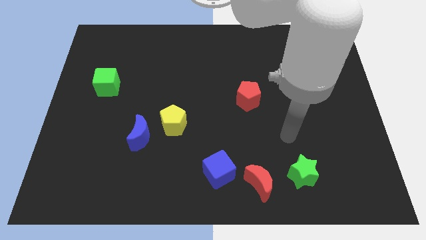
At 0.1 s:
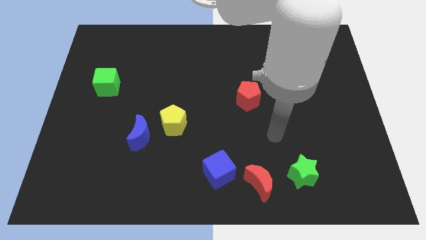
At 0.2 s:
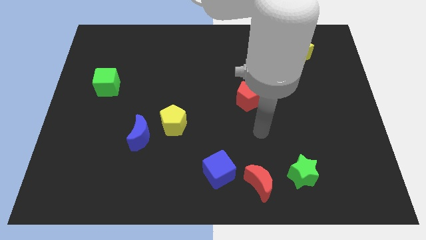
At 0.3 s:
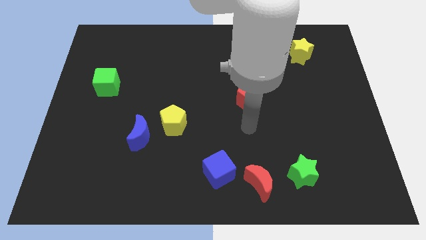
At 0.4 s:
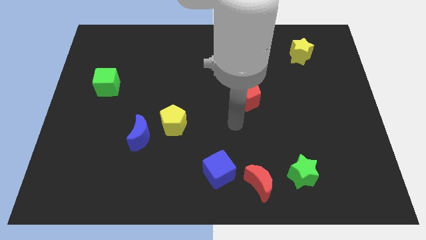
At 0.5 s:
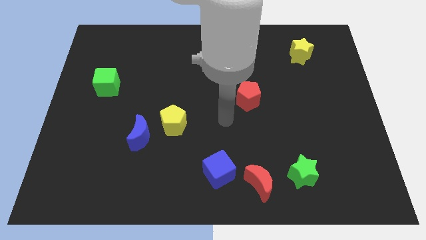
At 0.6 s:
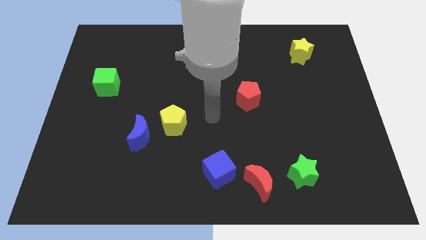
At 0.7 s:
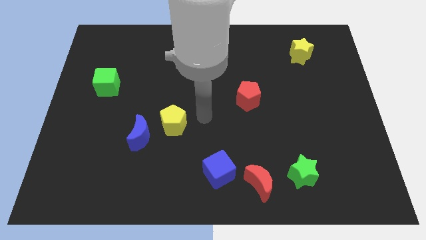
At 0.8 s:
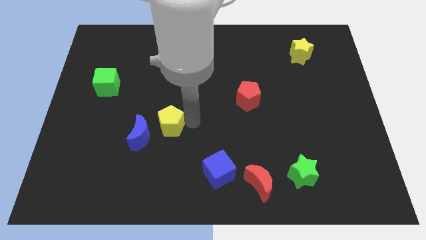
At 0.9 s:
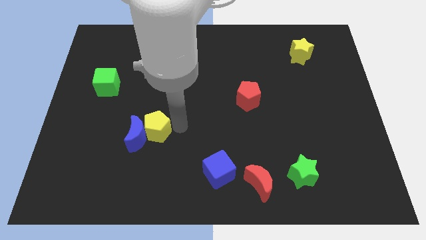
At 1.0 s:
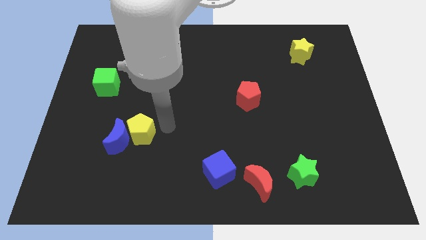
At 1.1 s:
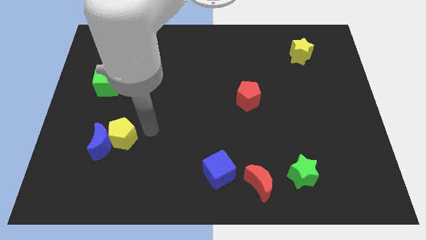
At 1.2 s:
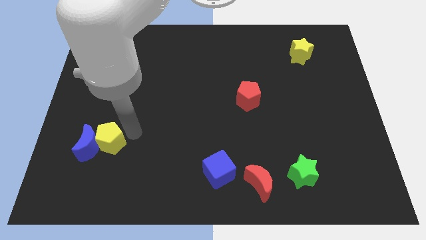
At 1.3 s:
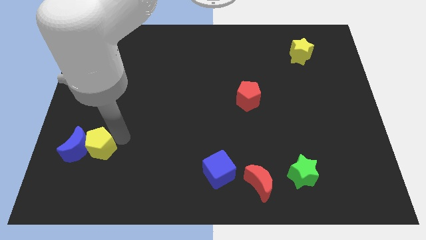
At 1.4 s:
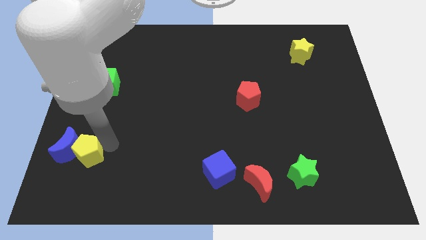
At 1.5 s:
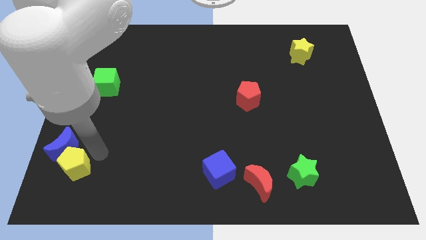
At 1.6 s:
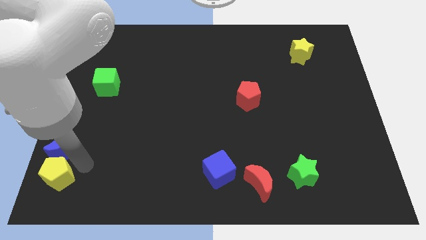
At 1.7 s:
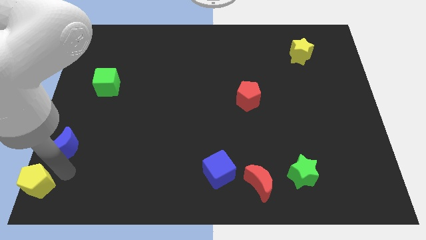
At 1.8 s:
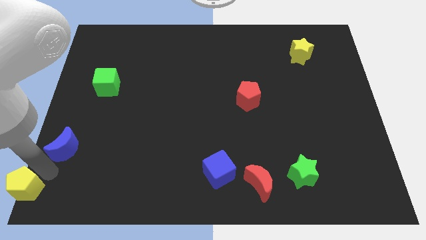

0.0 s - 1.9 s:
pull the blue moon apart from the yellow pentagon

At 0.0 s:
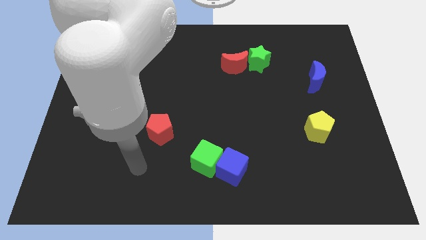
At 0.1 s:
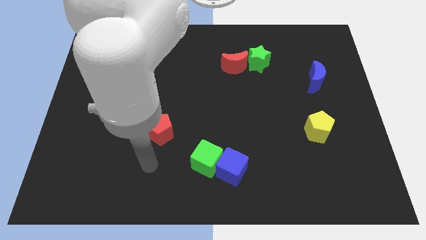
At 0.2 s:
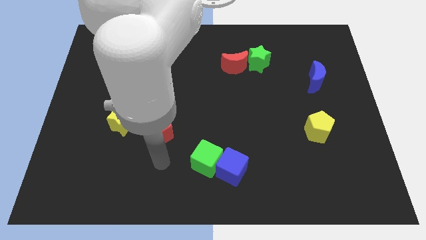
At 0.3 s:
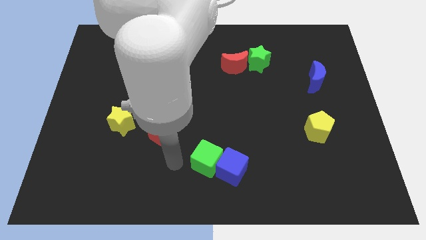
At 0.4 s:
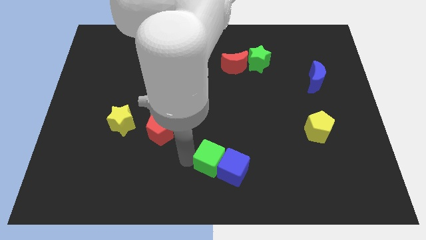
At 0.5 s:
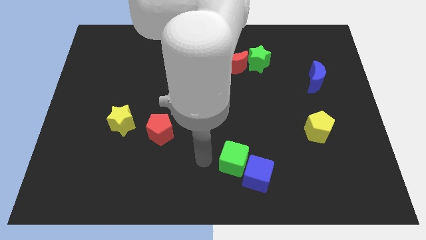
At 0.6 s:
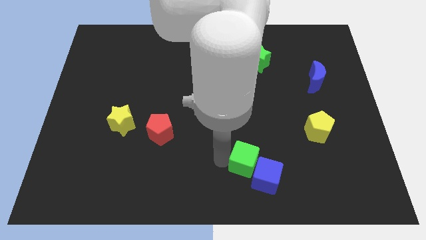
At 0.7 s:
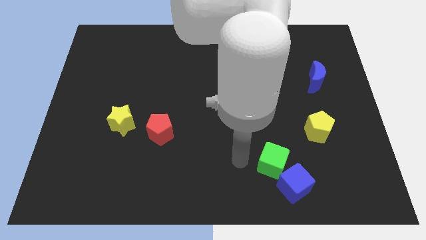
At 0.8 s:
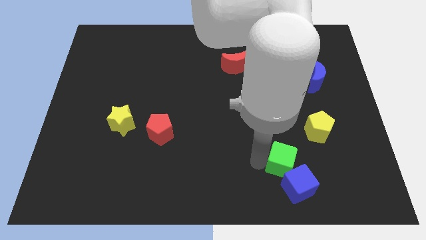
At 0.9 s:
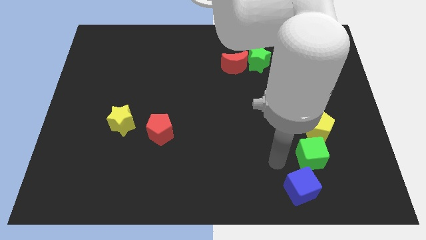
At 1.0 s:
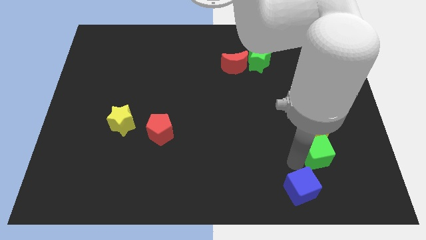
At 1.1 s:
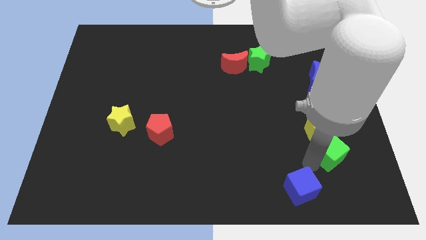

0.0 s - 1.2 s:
move the blue cube away from the green cube

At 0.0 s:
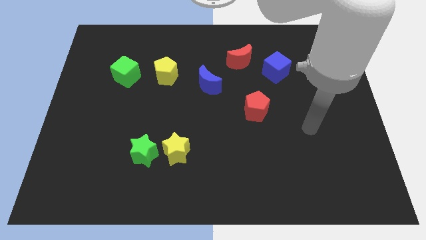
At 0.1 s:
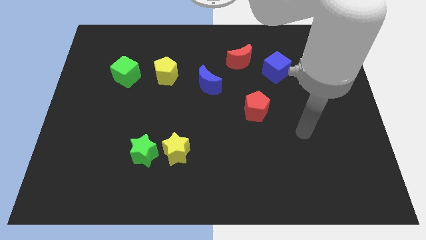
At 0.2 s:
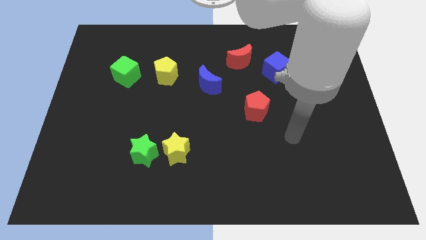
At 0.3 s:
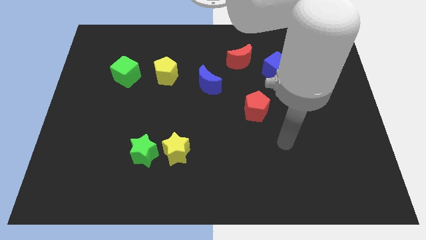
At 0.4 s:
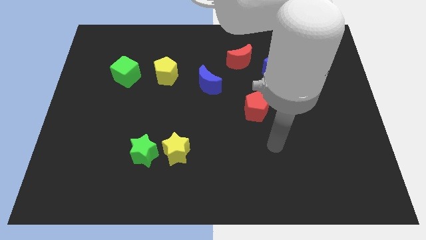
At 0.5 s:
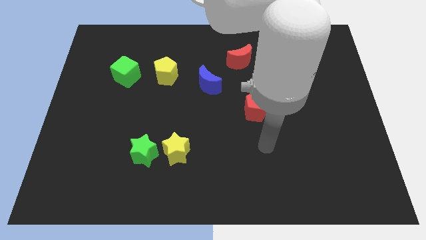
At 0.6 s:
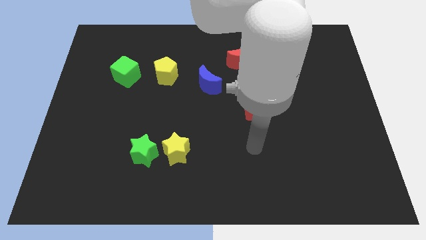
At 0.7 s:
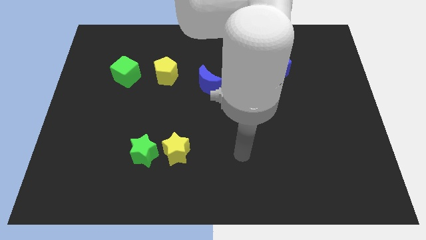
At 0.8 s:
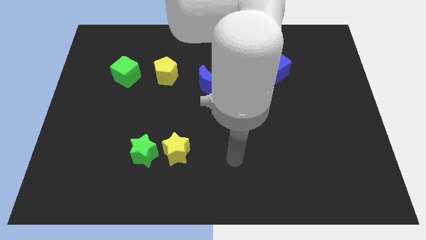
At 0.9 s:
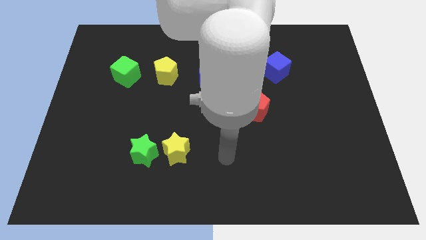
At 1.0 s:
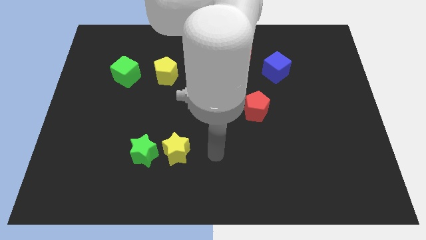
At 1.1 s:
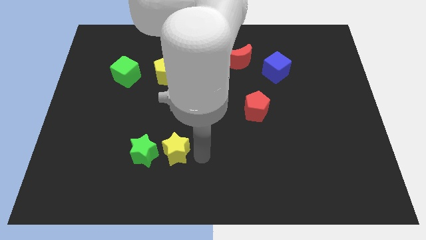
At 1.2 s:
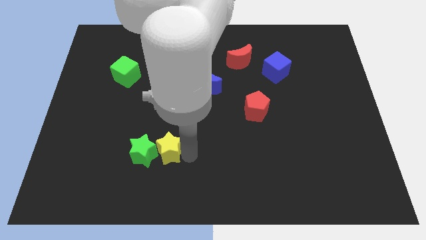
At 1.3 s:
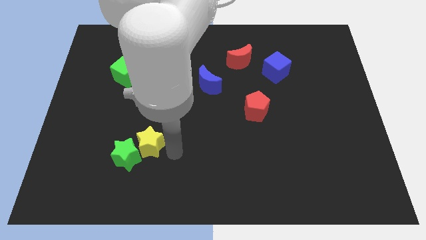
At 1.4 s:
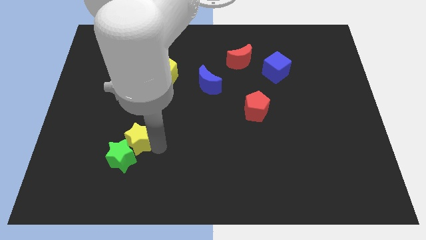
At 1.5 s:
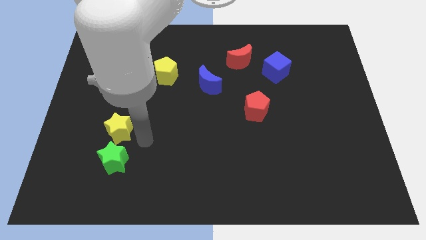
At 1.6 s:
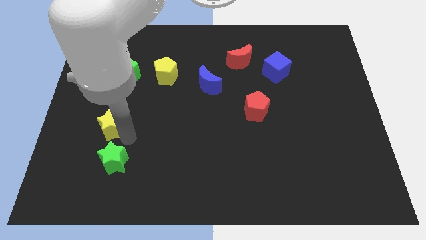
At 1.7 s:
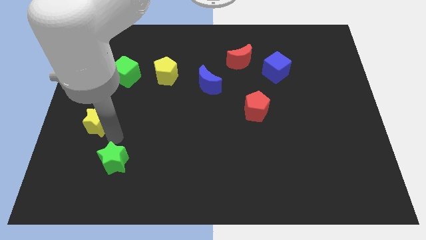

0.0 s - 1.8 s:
move the green star away from the yellow star

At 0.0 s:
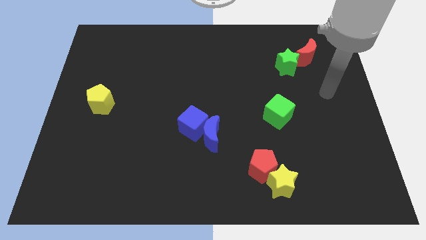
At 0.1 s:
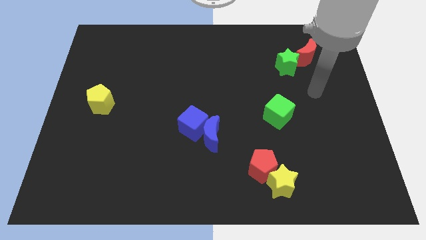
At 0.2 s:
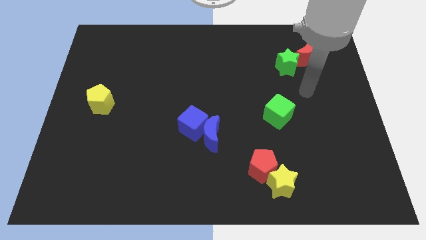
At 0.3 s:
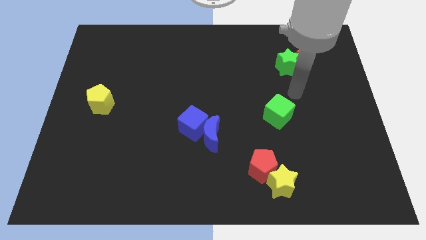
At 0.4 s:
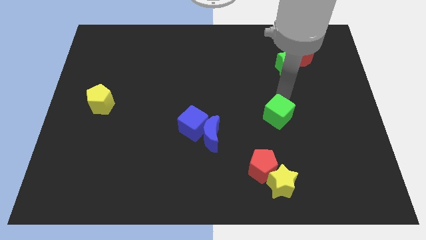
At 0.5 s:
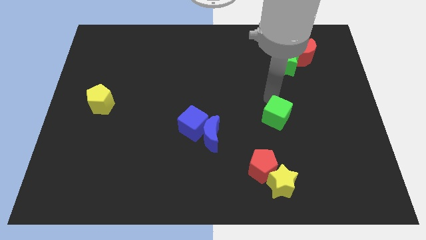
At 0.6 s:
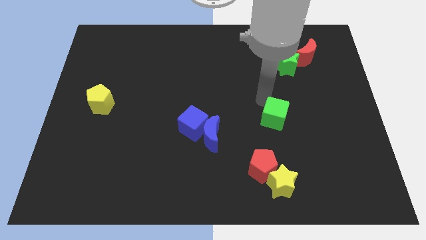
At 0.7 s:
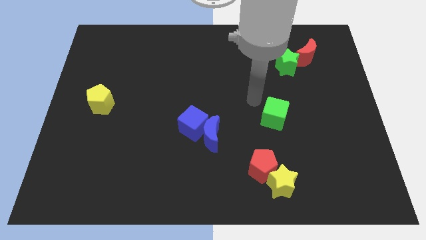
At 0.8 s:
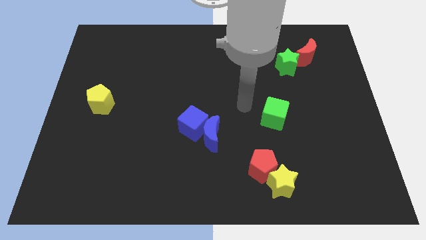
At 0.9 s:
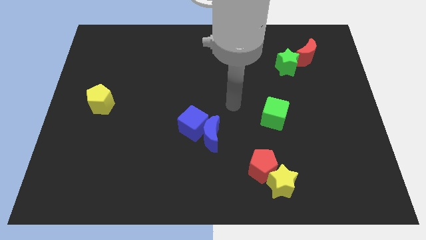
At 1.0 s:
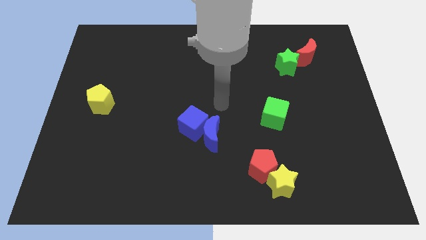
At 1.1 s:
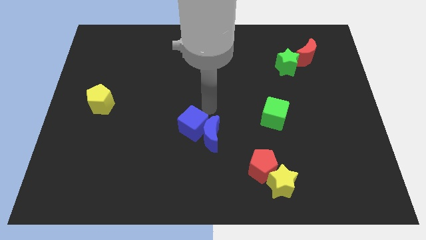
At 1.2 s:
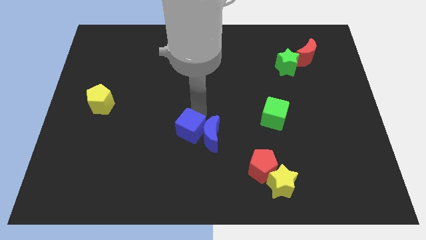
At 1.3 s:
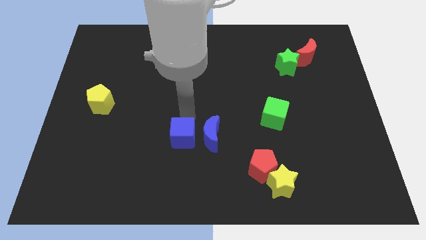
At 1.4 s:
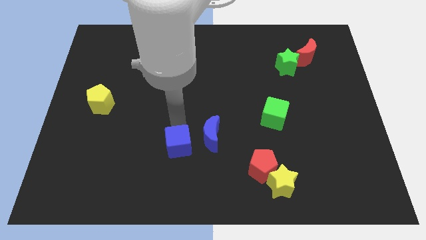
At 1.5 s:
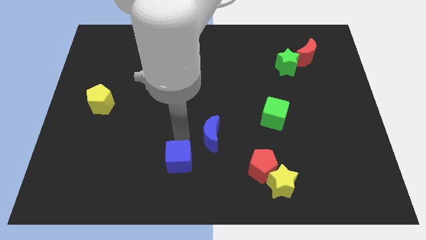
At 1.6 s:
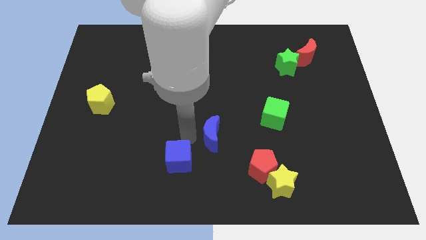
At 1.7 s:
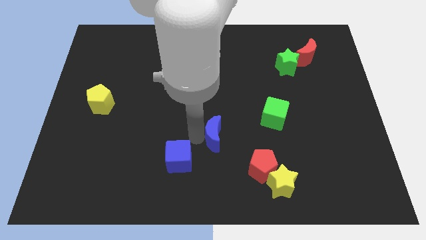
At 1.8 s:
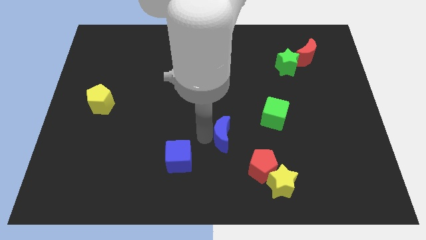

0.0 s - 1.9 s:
separate the blue moon from the blue cube

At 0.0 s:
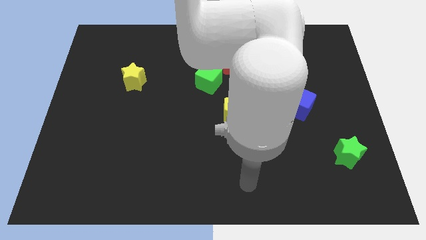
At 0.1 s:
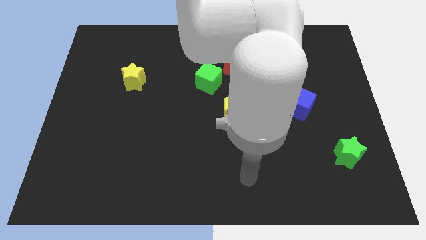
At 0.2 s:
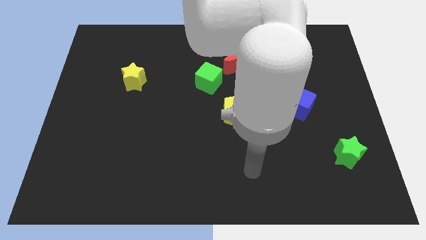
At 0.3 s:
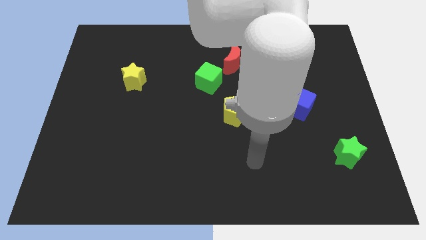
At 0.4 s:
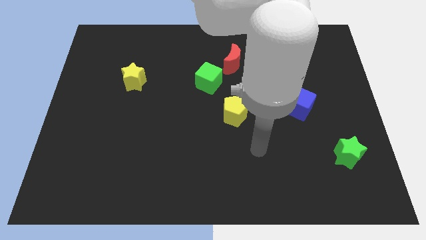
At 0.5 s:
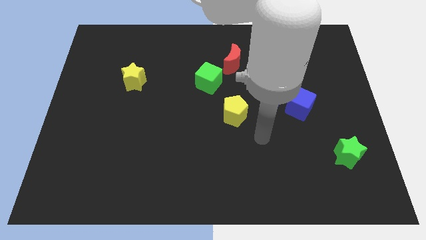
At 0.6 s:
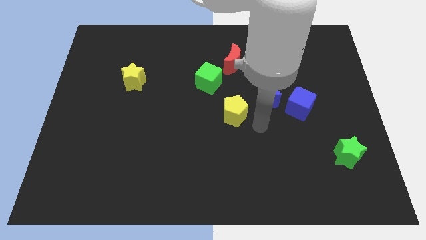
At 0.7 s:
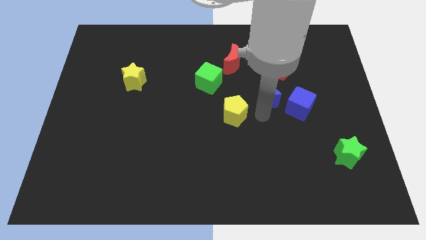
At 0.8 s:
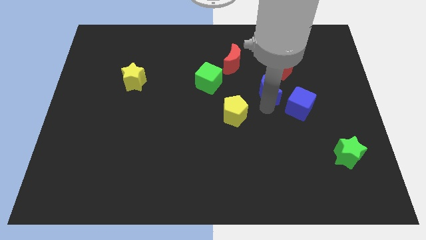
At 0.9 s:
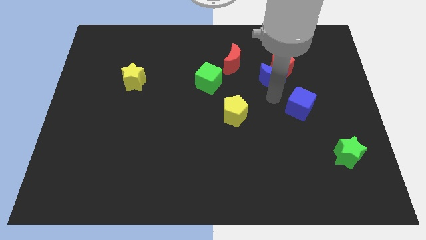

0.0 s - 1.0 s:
separate the blue cube from the blue moon

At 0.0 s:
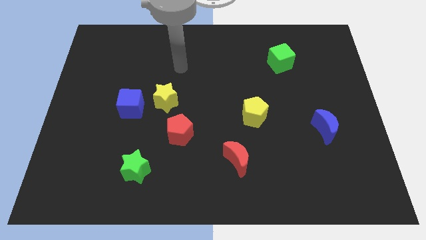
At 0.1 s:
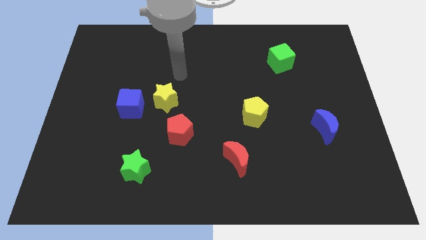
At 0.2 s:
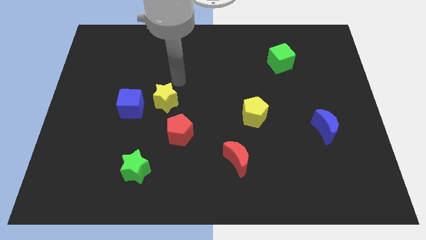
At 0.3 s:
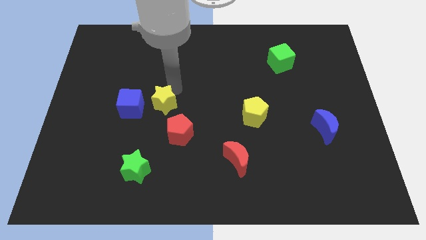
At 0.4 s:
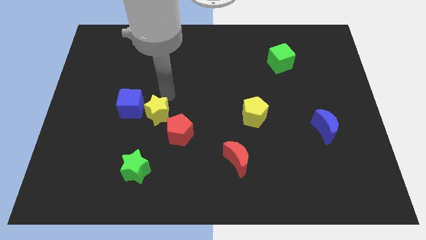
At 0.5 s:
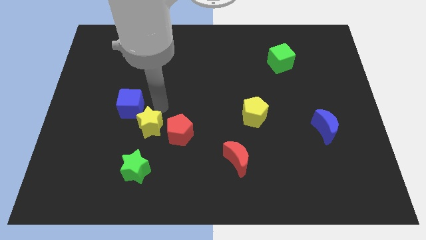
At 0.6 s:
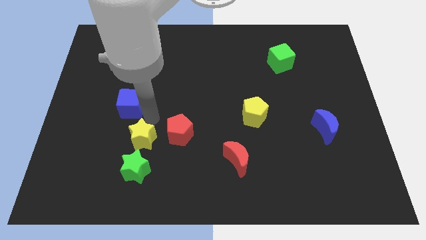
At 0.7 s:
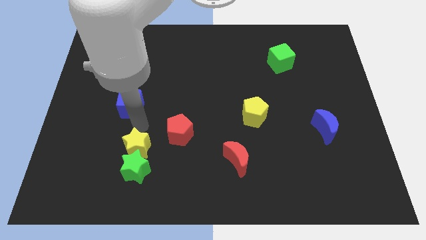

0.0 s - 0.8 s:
separate the blue cube from the yellow star

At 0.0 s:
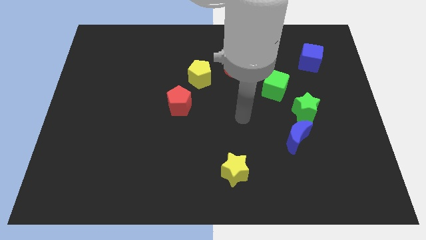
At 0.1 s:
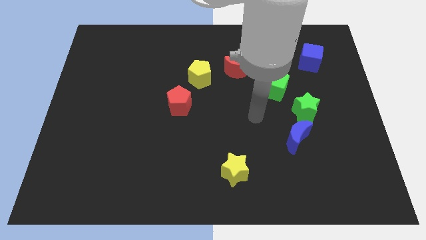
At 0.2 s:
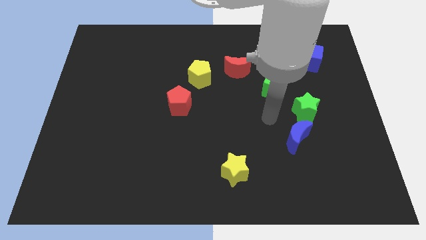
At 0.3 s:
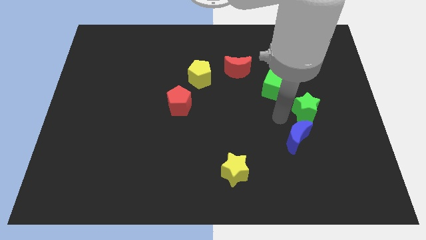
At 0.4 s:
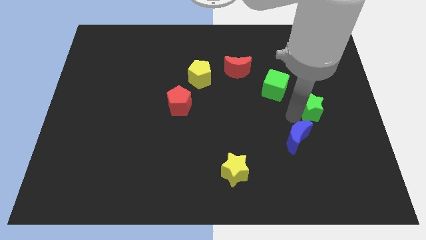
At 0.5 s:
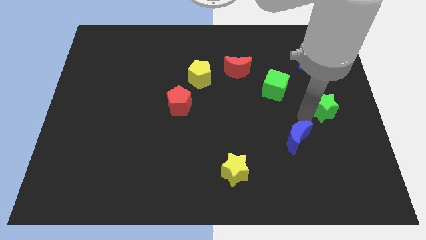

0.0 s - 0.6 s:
separate the blue moon from the green star

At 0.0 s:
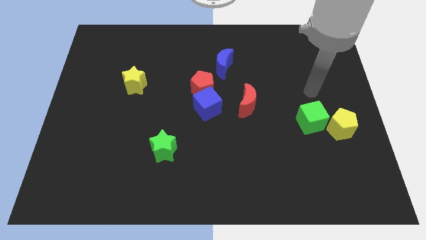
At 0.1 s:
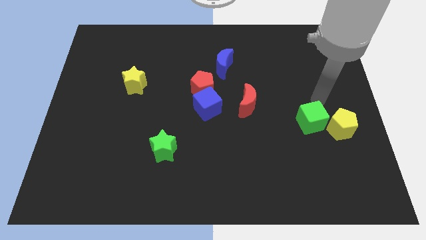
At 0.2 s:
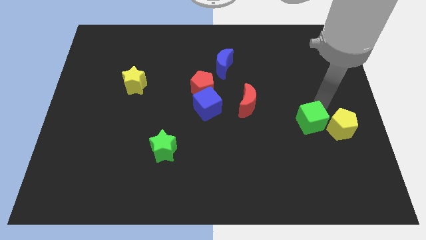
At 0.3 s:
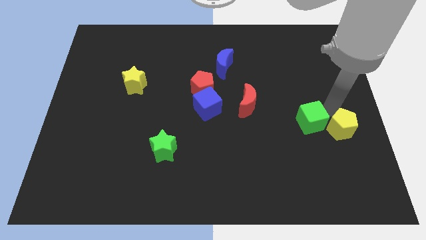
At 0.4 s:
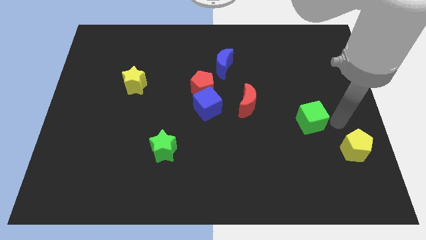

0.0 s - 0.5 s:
pull the green cube apart from the yellow pentagon
